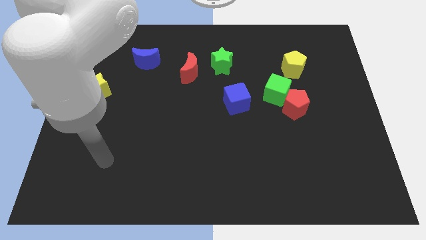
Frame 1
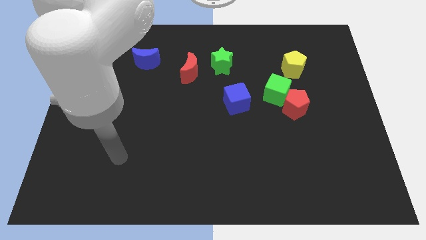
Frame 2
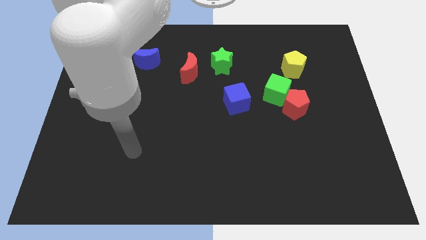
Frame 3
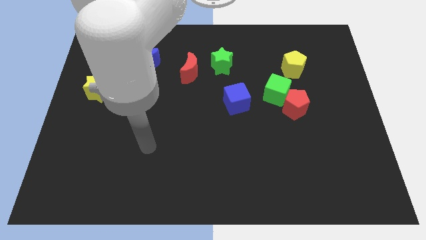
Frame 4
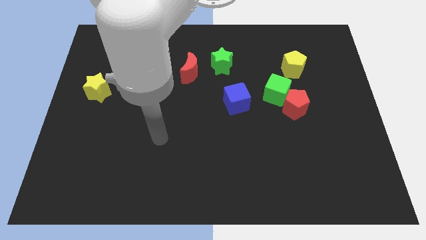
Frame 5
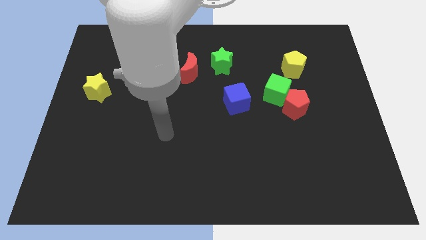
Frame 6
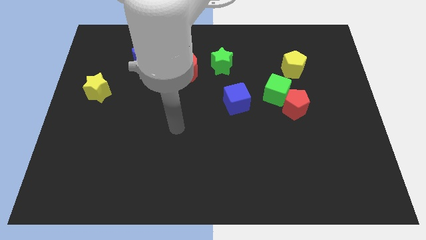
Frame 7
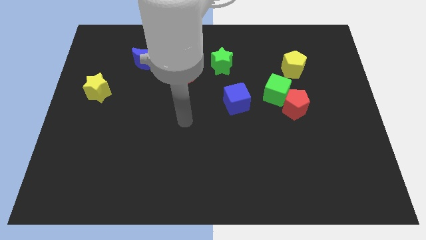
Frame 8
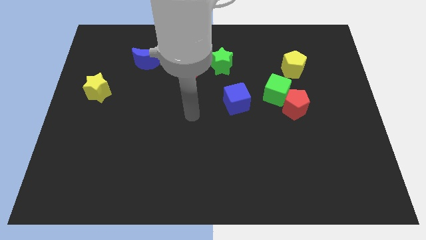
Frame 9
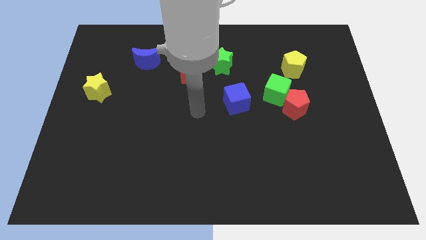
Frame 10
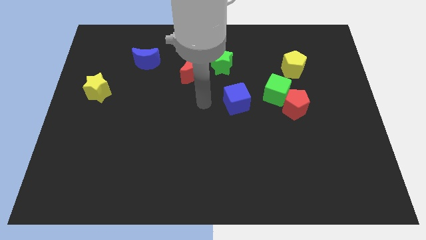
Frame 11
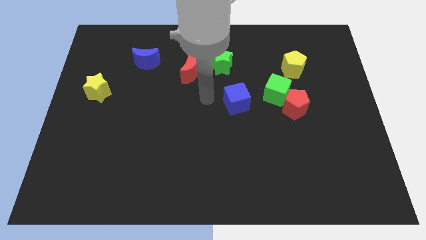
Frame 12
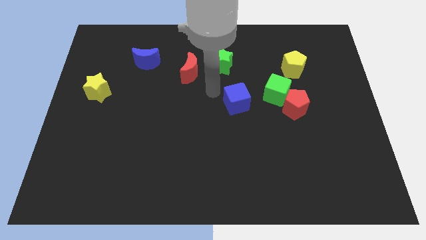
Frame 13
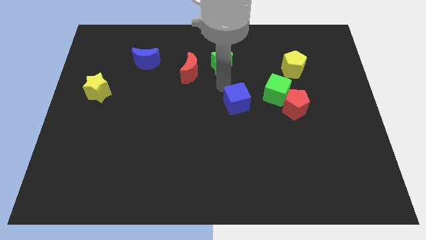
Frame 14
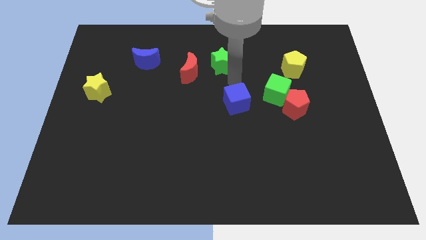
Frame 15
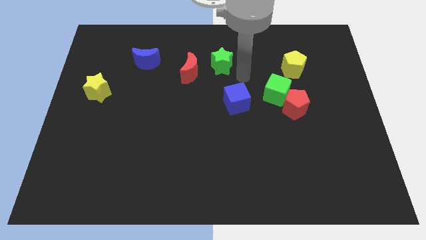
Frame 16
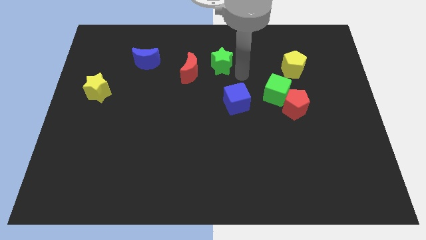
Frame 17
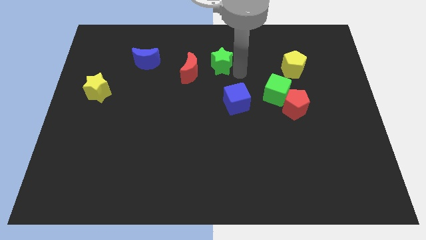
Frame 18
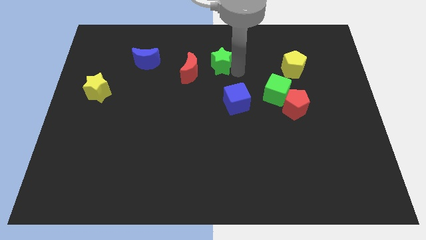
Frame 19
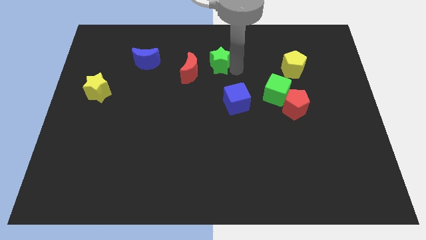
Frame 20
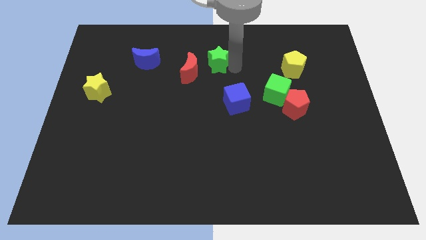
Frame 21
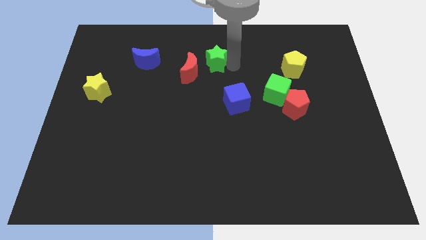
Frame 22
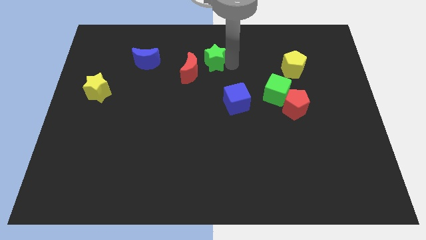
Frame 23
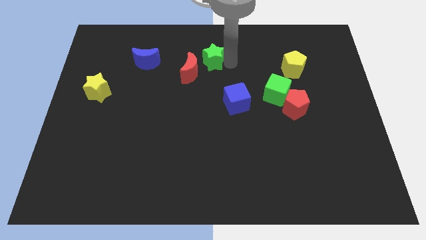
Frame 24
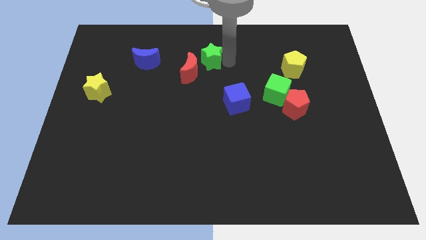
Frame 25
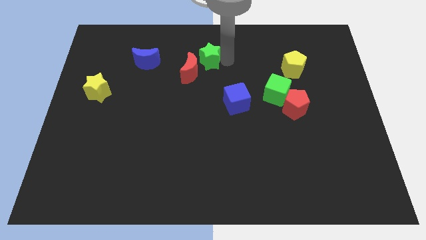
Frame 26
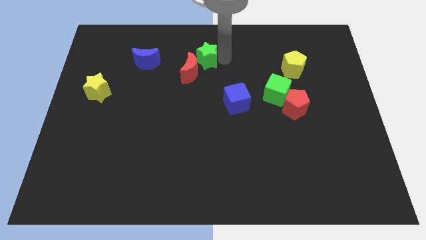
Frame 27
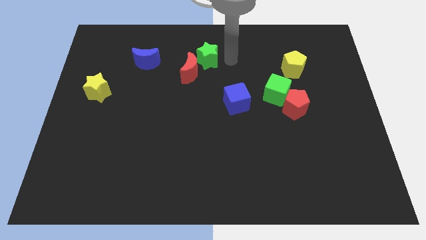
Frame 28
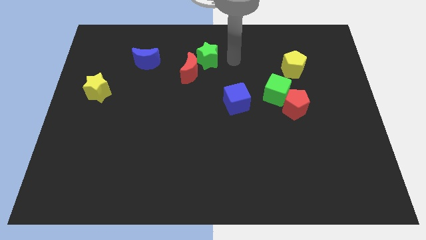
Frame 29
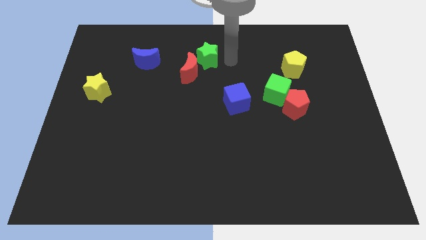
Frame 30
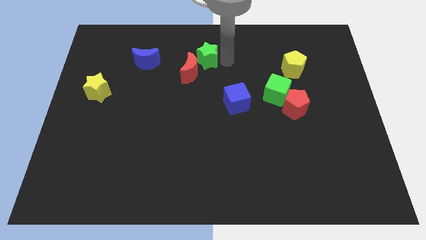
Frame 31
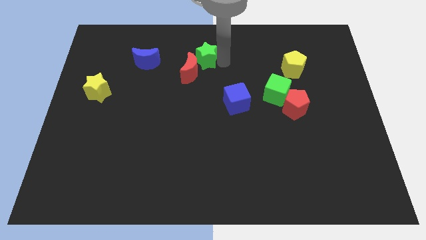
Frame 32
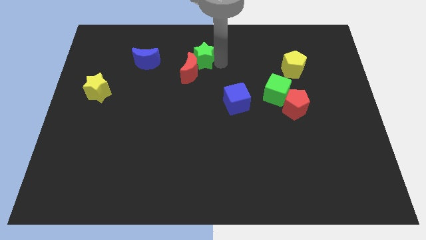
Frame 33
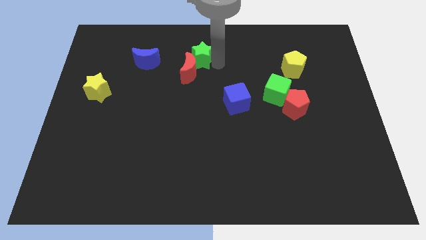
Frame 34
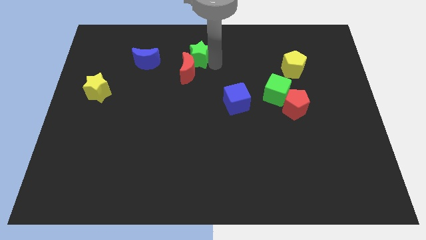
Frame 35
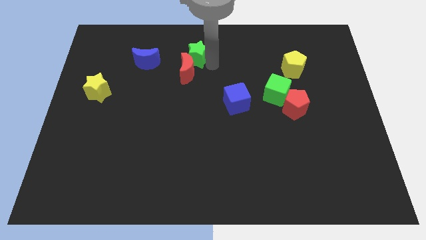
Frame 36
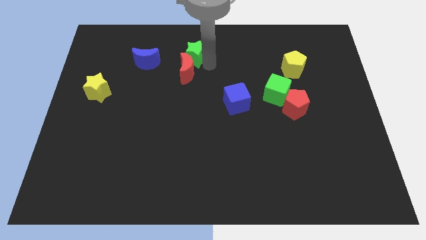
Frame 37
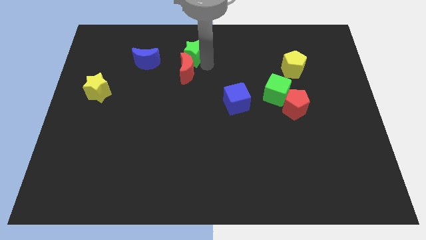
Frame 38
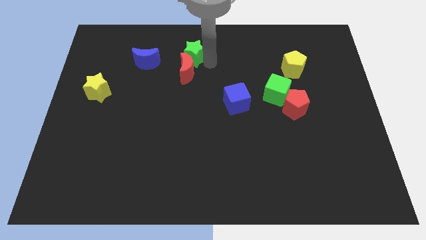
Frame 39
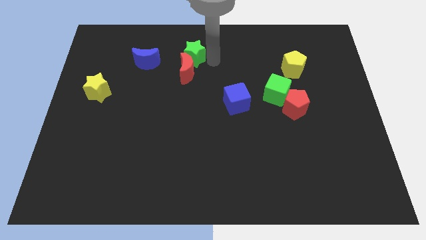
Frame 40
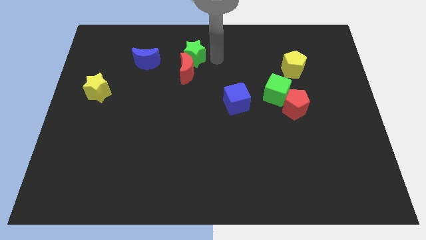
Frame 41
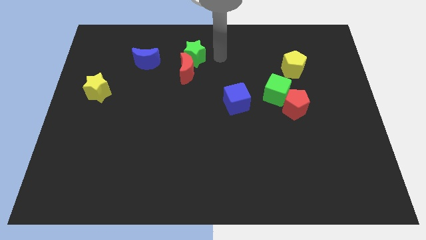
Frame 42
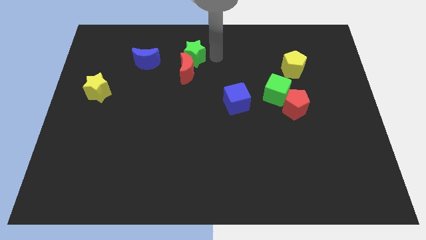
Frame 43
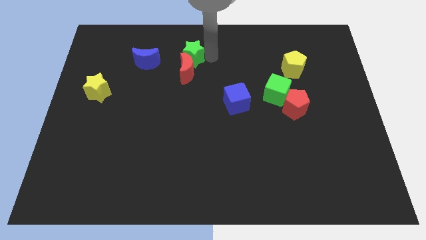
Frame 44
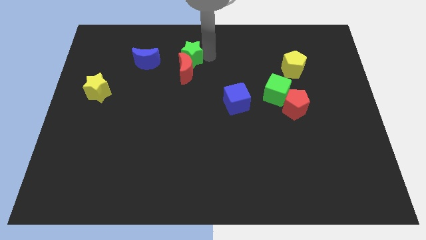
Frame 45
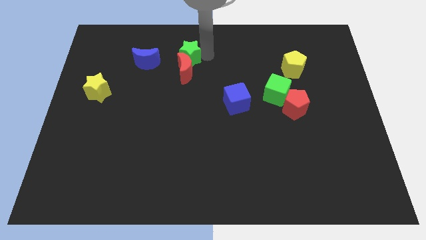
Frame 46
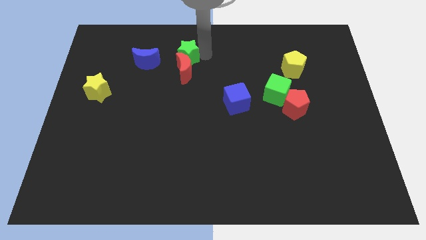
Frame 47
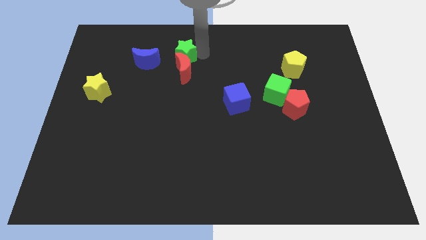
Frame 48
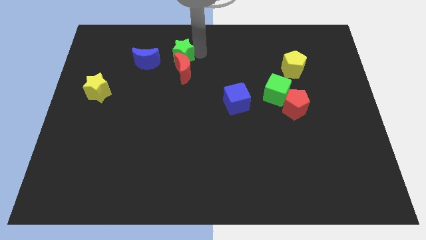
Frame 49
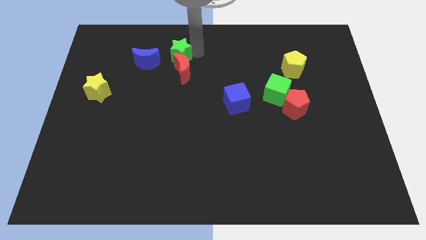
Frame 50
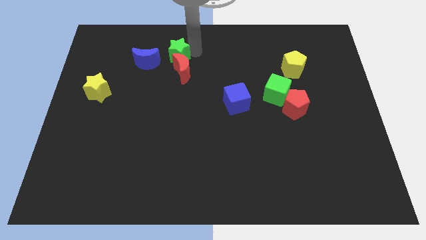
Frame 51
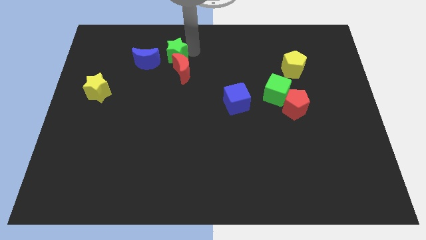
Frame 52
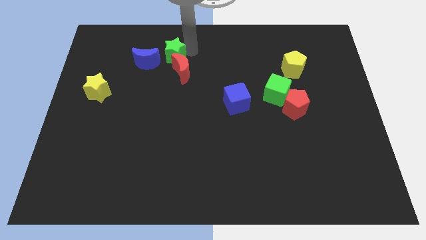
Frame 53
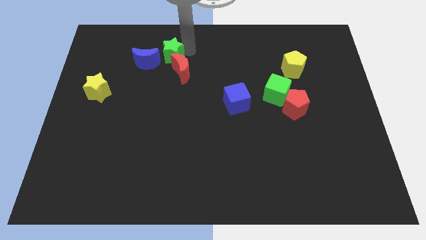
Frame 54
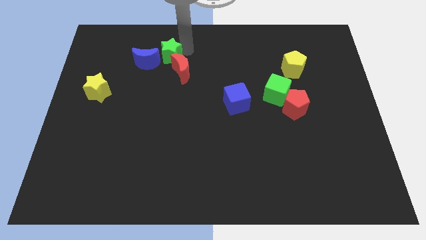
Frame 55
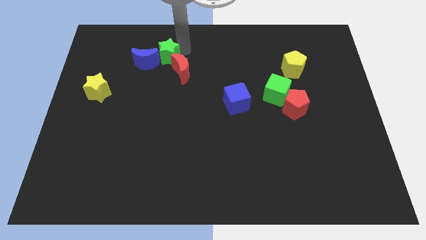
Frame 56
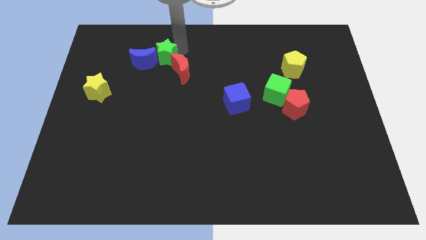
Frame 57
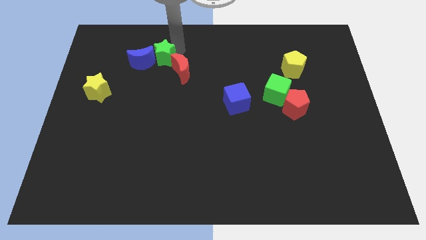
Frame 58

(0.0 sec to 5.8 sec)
push the green star towards the blue moon
